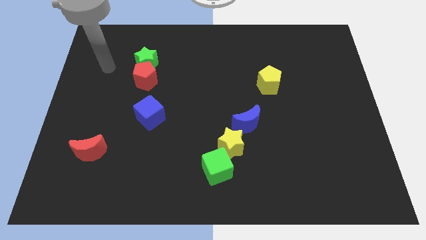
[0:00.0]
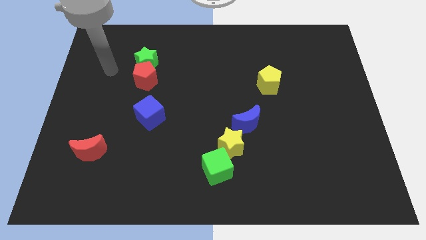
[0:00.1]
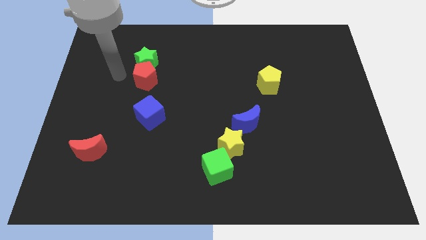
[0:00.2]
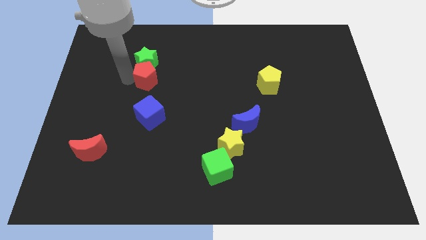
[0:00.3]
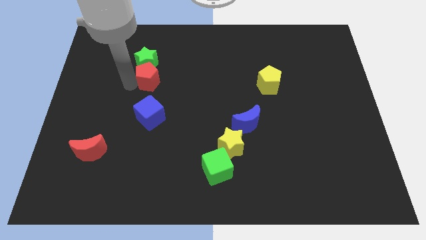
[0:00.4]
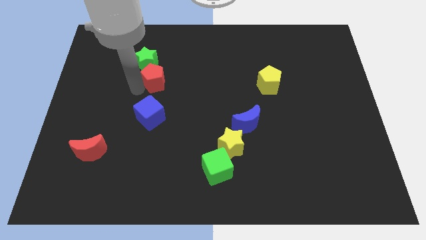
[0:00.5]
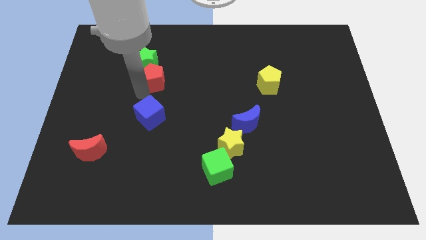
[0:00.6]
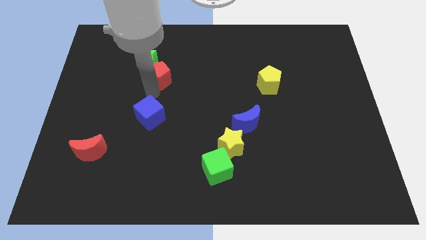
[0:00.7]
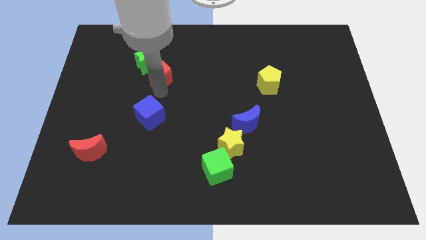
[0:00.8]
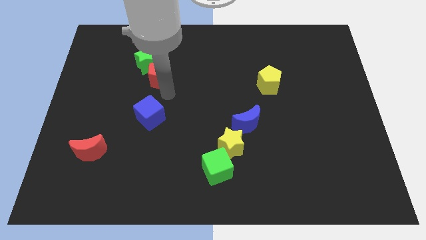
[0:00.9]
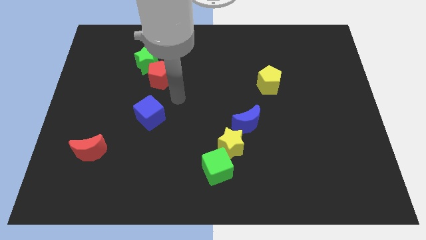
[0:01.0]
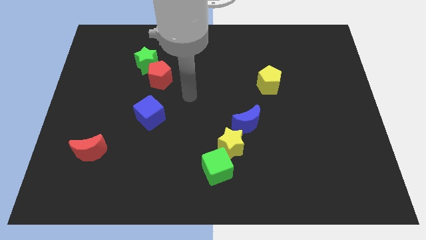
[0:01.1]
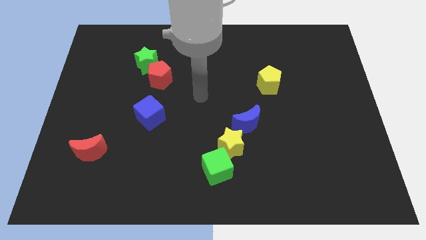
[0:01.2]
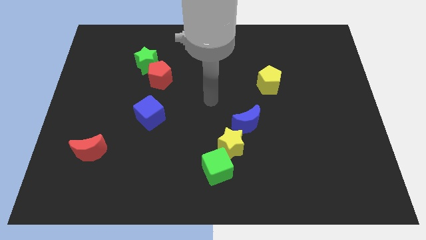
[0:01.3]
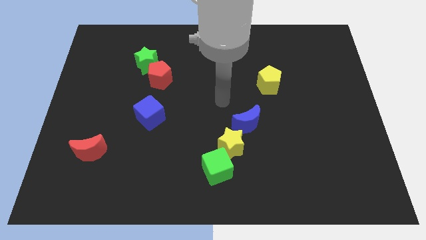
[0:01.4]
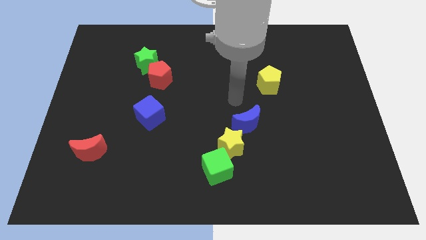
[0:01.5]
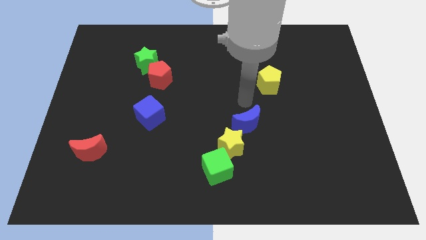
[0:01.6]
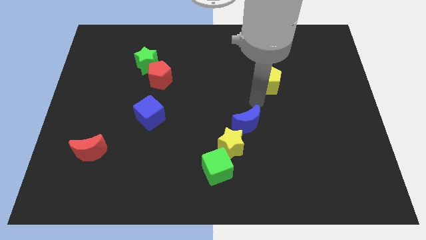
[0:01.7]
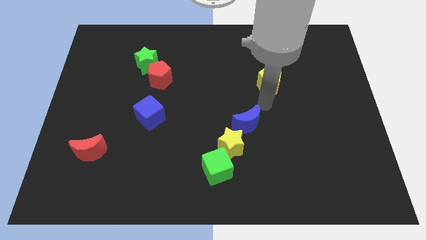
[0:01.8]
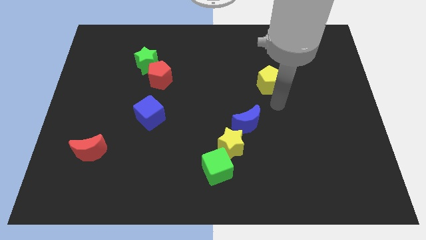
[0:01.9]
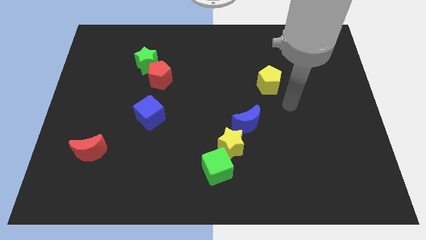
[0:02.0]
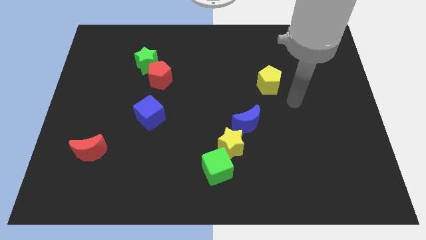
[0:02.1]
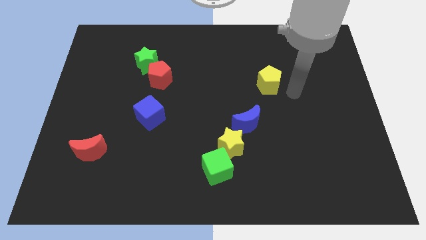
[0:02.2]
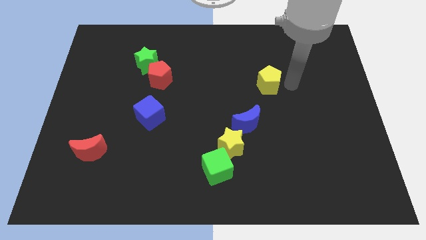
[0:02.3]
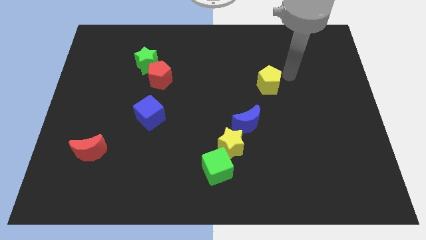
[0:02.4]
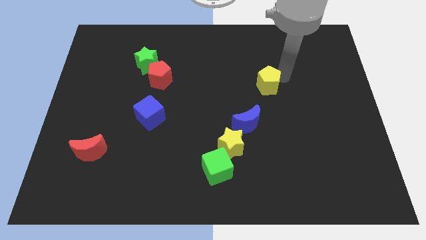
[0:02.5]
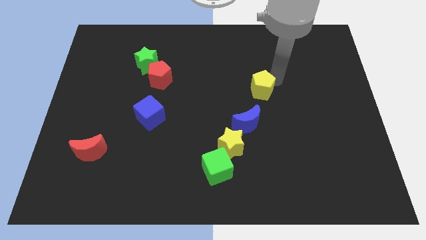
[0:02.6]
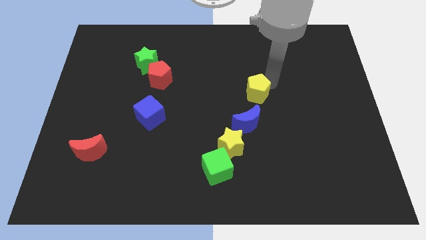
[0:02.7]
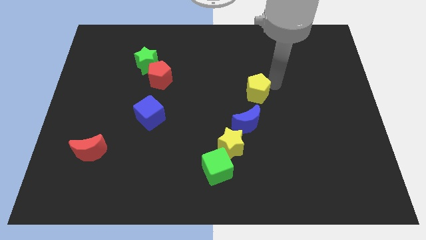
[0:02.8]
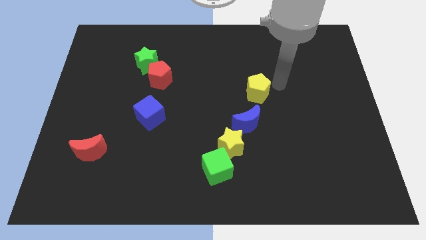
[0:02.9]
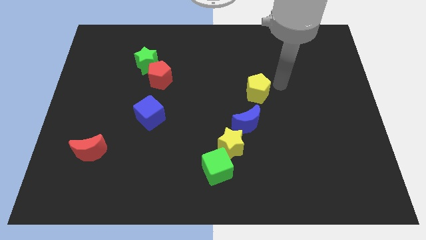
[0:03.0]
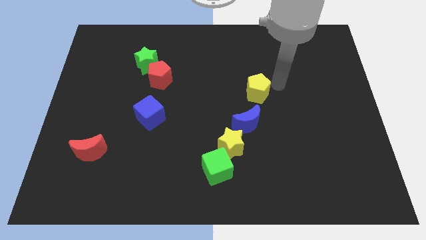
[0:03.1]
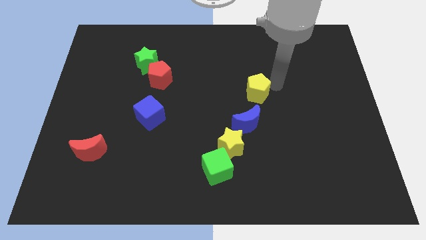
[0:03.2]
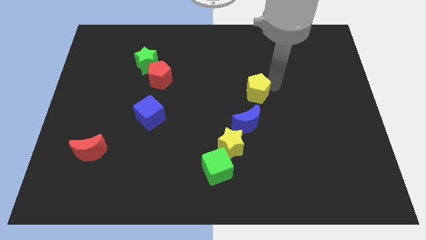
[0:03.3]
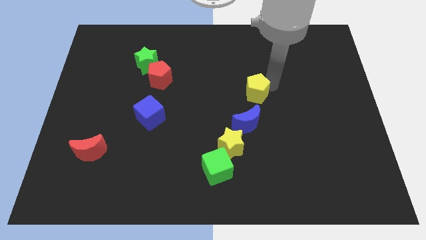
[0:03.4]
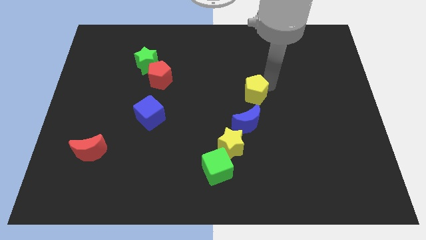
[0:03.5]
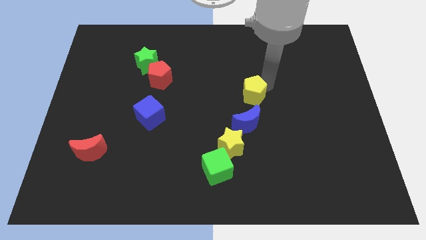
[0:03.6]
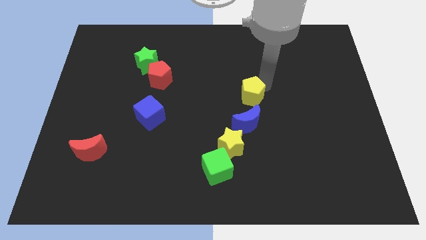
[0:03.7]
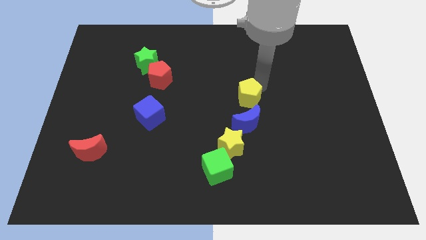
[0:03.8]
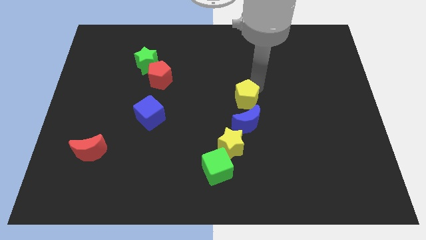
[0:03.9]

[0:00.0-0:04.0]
move the yellow pentagon a little diagonally downwards and left

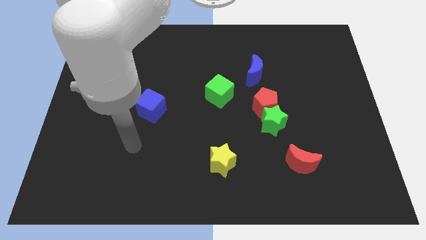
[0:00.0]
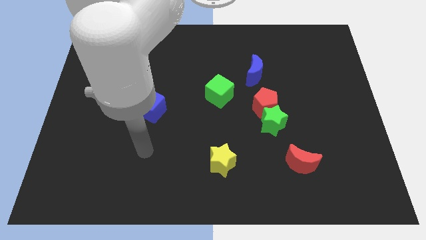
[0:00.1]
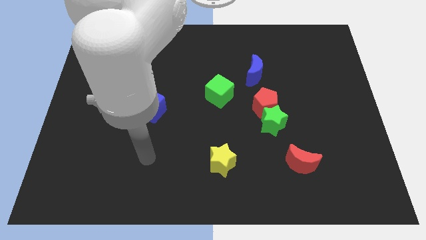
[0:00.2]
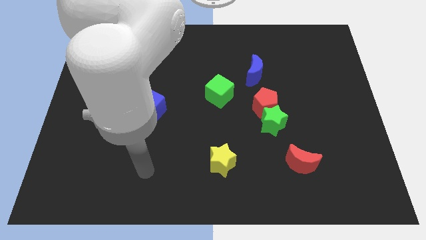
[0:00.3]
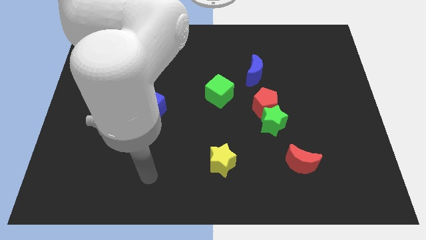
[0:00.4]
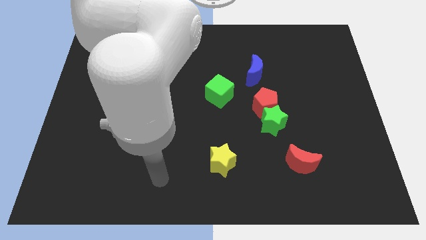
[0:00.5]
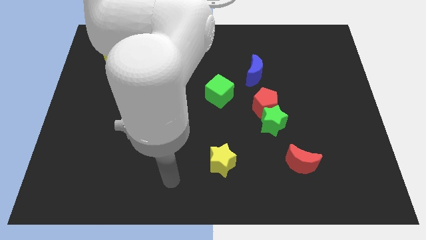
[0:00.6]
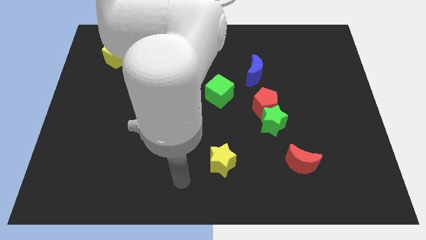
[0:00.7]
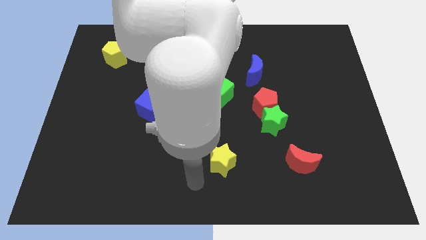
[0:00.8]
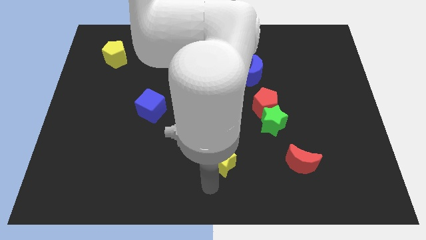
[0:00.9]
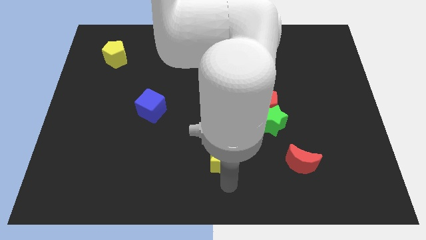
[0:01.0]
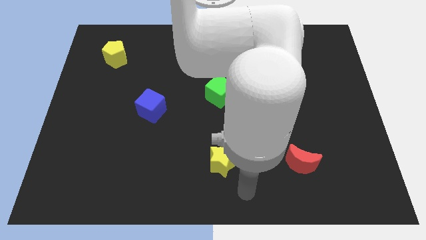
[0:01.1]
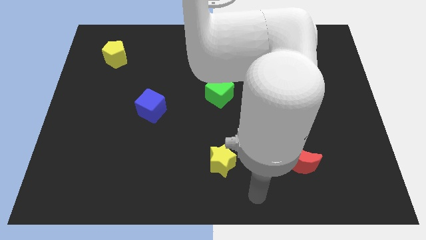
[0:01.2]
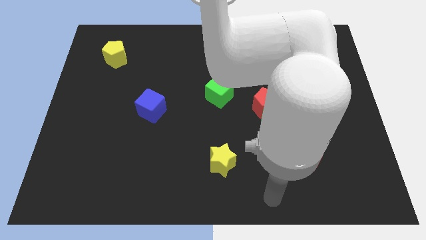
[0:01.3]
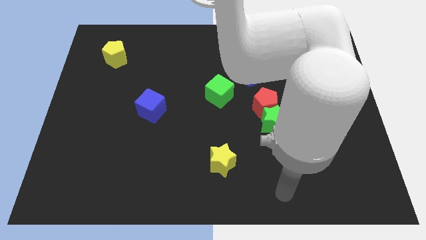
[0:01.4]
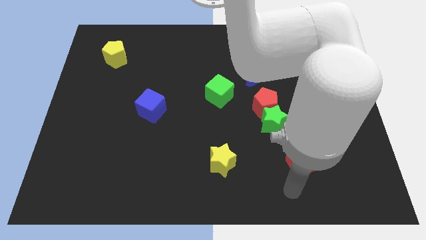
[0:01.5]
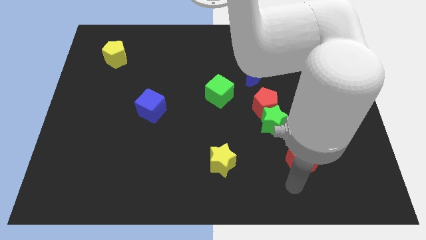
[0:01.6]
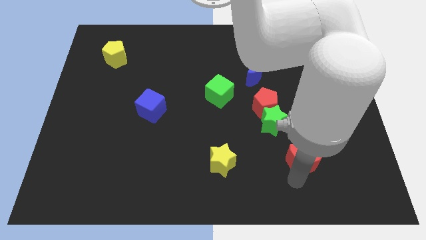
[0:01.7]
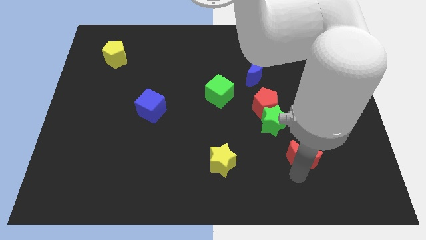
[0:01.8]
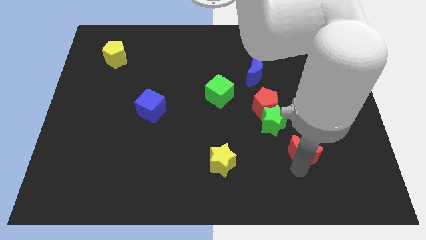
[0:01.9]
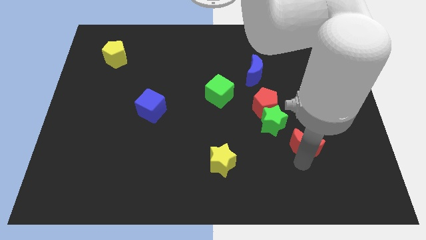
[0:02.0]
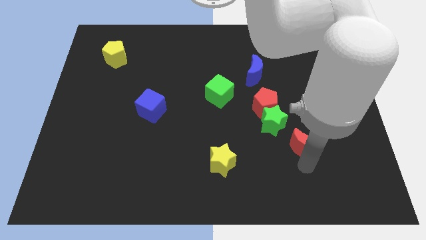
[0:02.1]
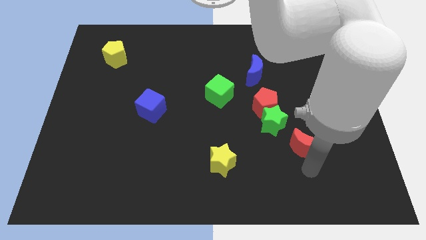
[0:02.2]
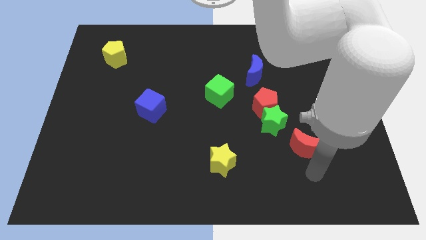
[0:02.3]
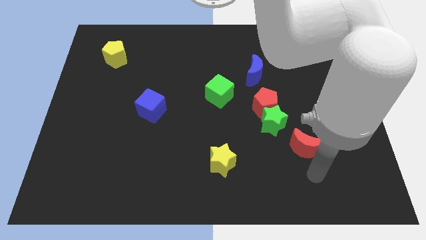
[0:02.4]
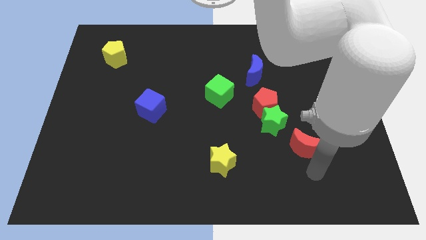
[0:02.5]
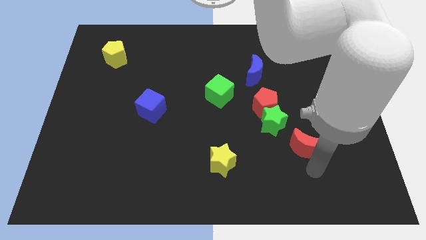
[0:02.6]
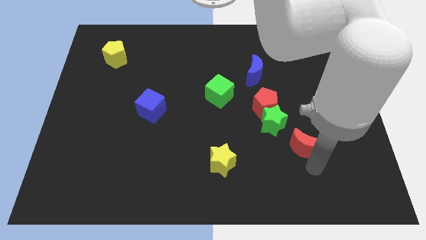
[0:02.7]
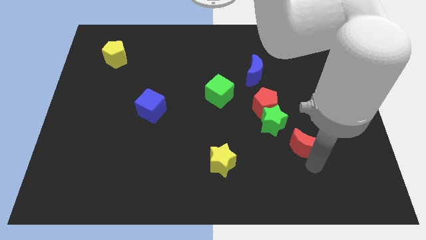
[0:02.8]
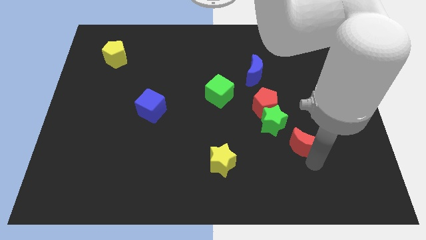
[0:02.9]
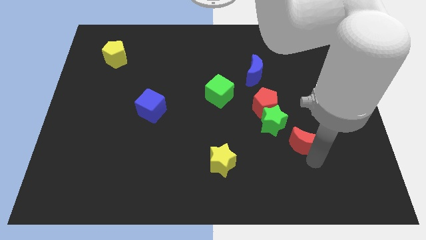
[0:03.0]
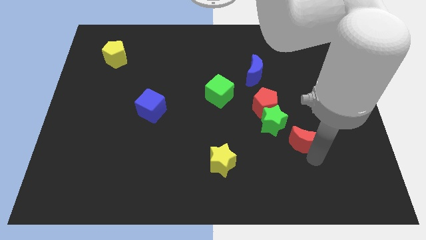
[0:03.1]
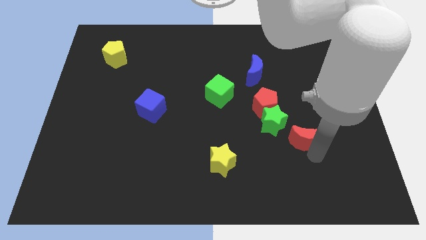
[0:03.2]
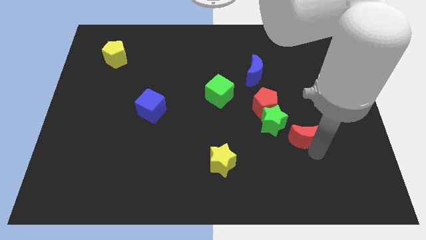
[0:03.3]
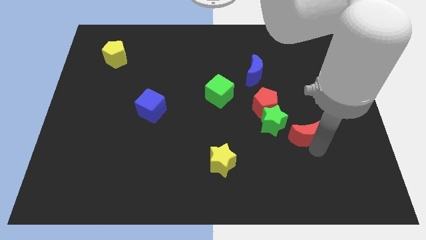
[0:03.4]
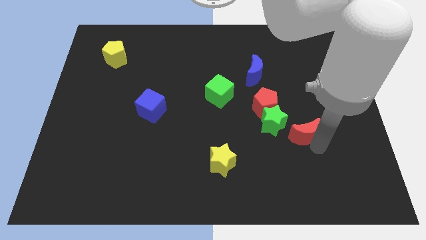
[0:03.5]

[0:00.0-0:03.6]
push the red moon a little bit upwards

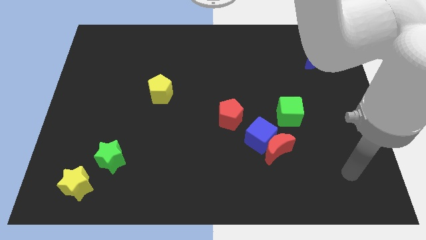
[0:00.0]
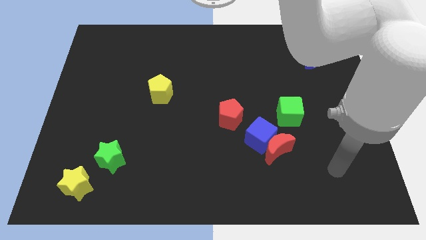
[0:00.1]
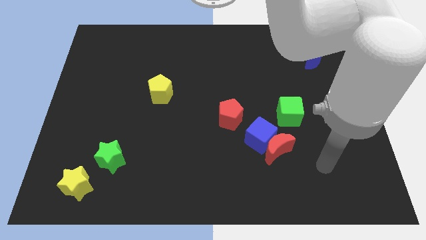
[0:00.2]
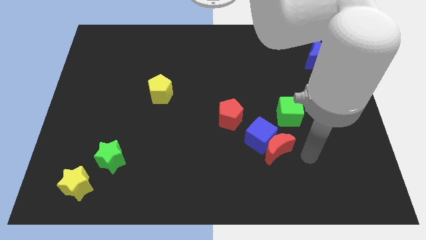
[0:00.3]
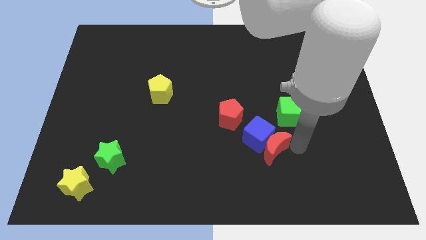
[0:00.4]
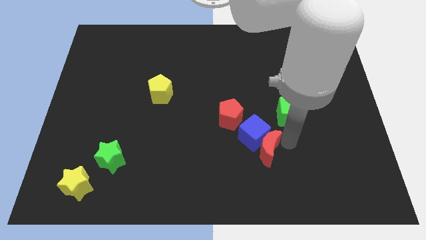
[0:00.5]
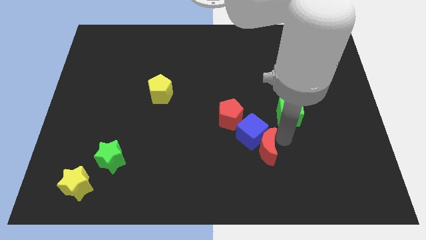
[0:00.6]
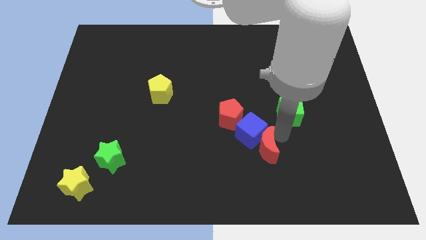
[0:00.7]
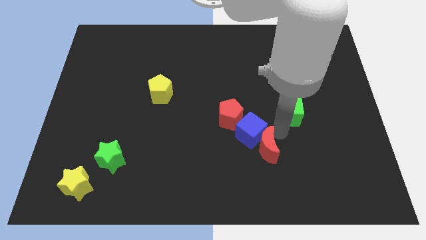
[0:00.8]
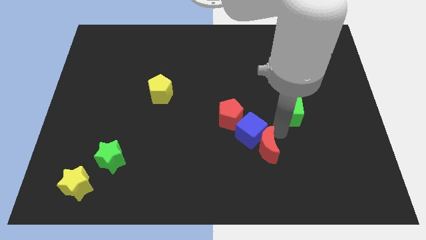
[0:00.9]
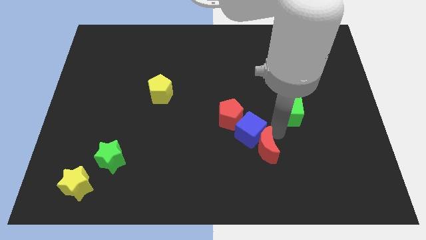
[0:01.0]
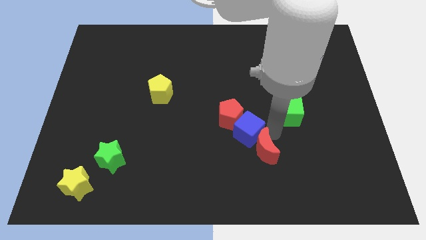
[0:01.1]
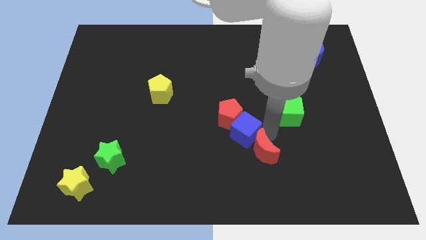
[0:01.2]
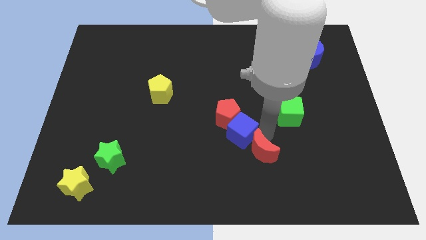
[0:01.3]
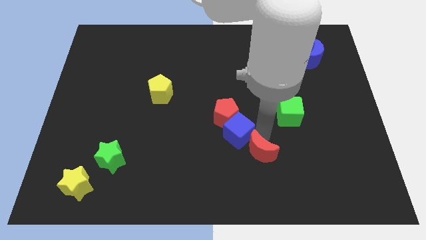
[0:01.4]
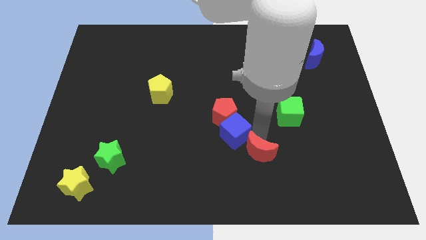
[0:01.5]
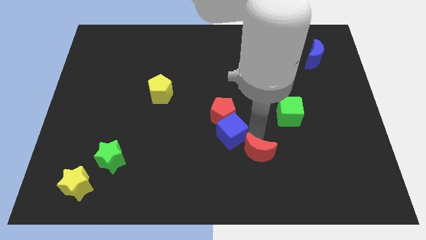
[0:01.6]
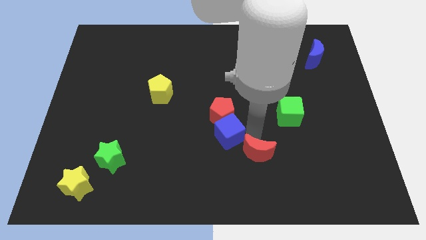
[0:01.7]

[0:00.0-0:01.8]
slide the blue cube somewhat left
